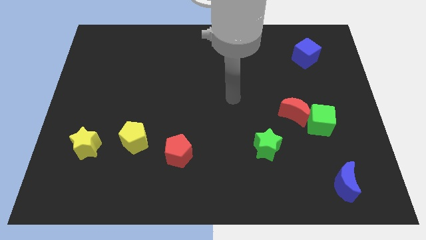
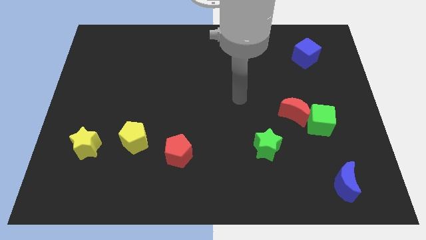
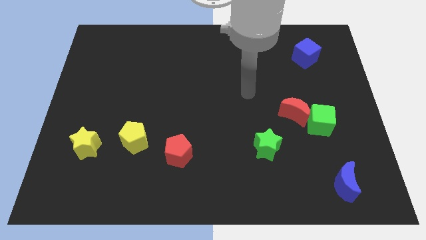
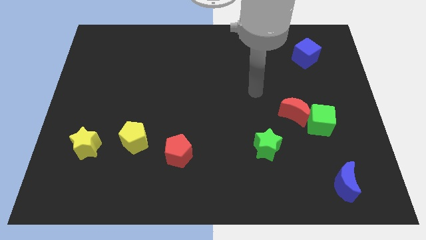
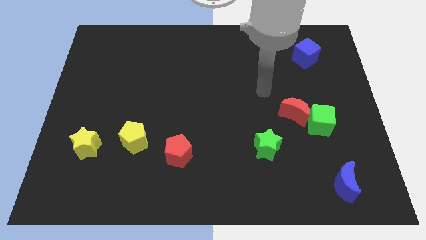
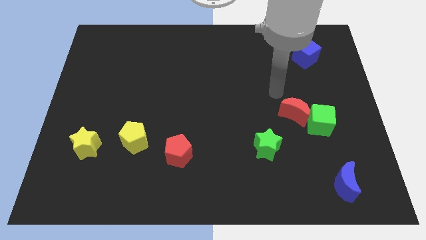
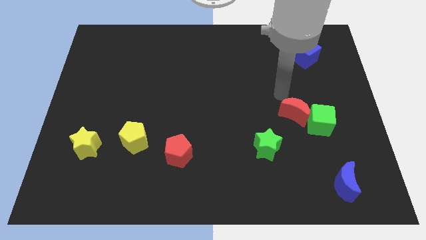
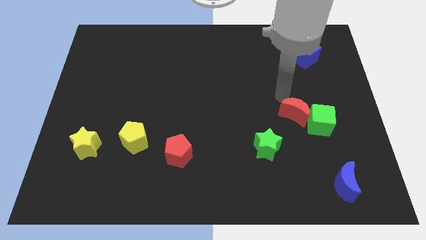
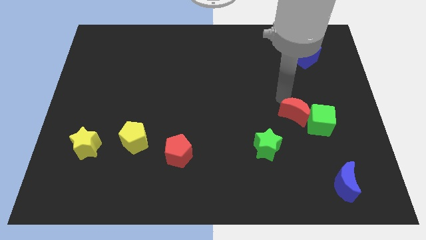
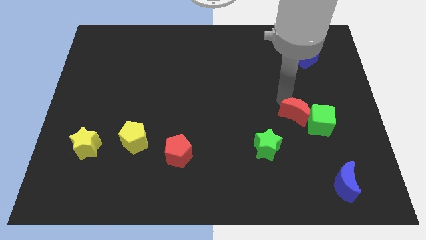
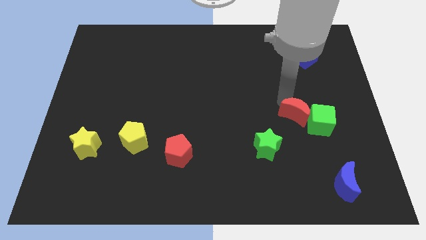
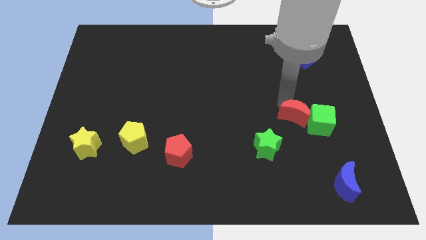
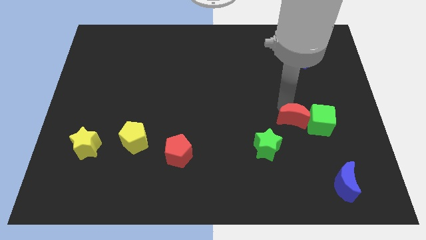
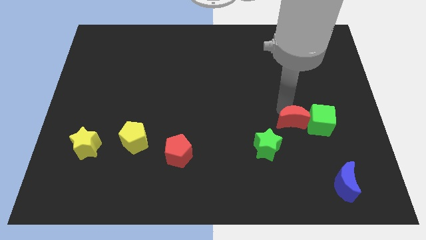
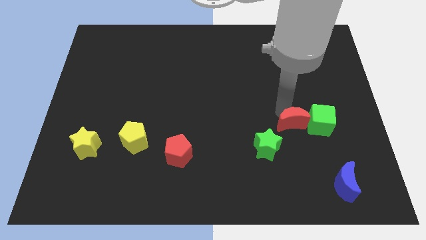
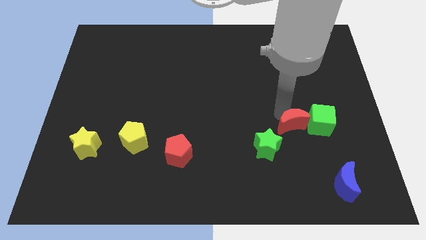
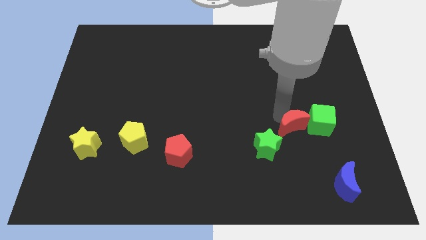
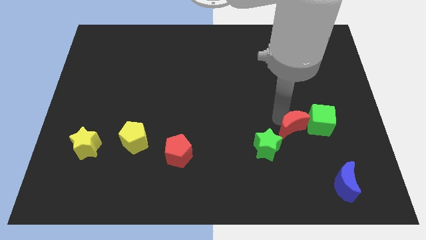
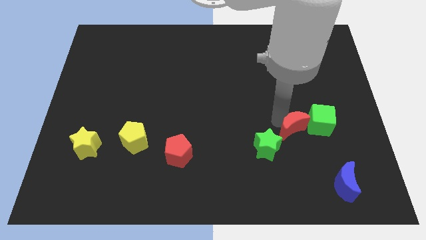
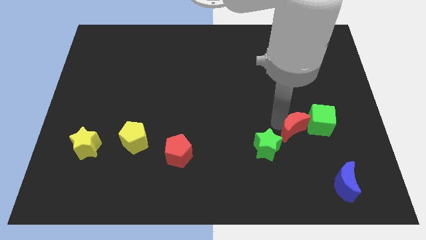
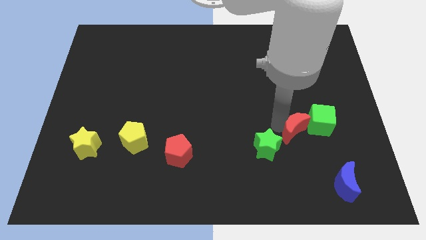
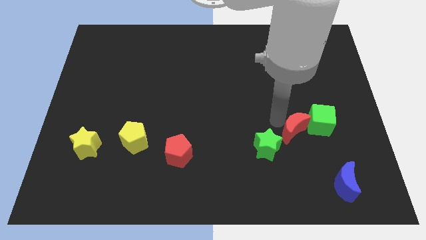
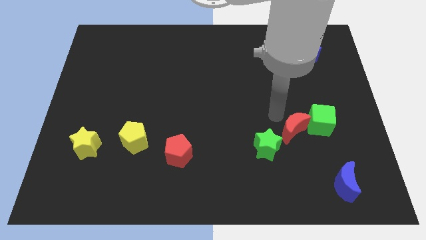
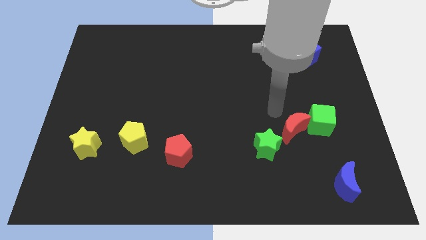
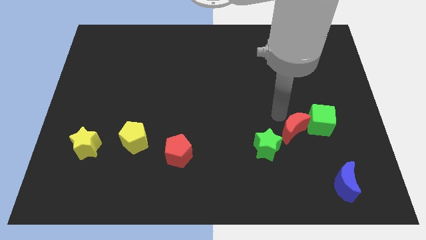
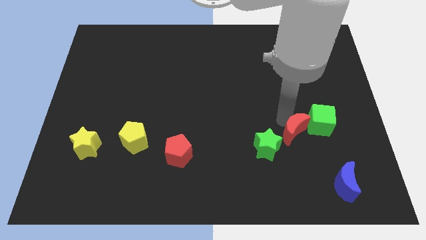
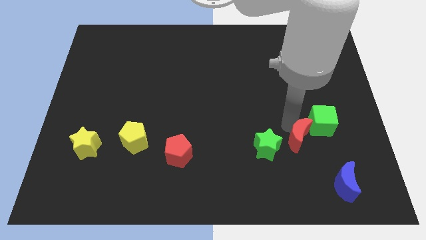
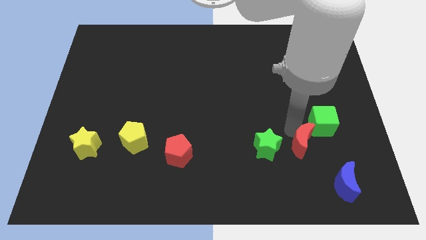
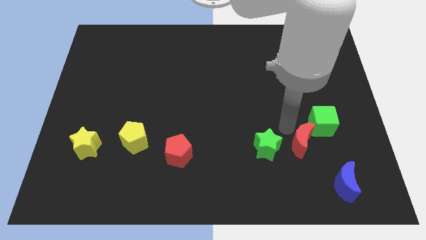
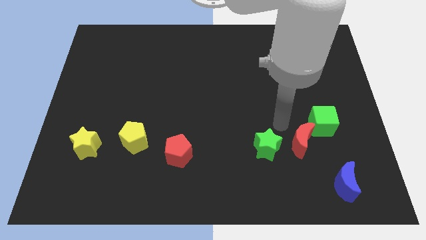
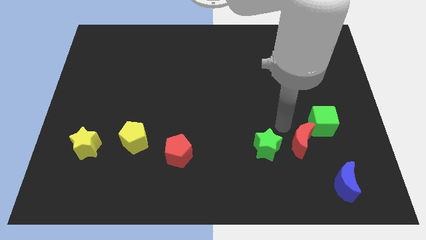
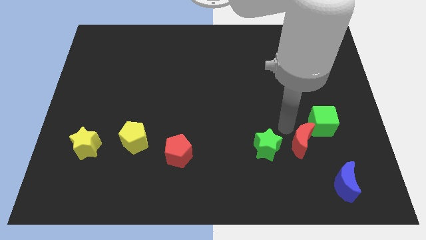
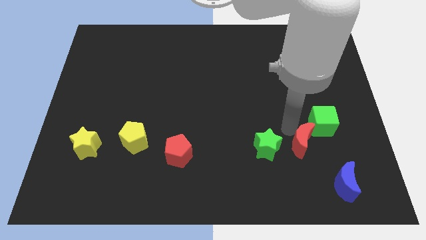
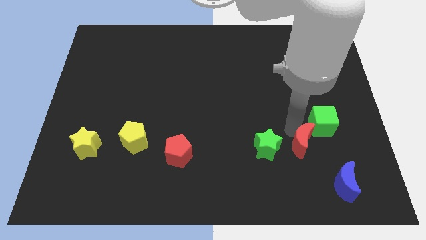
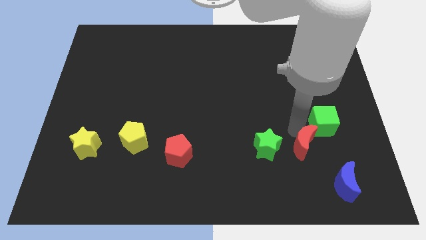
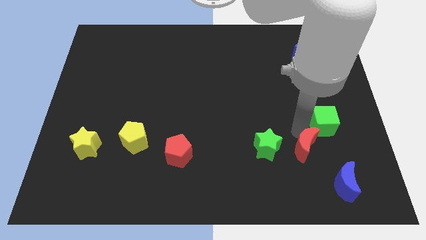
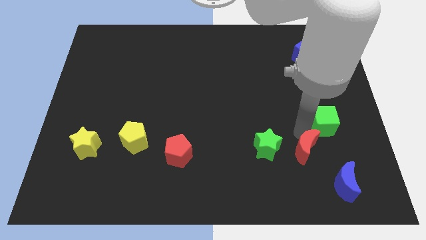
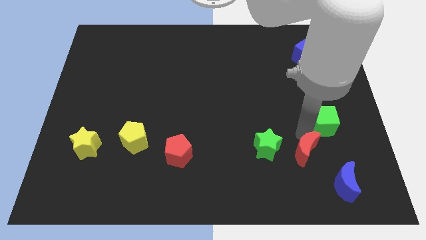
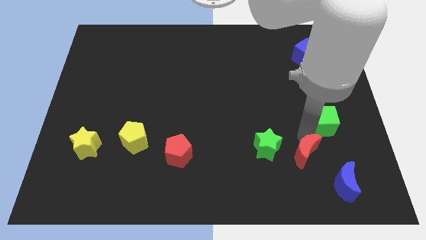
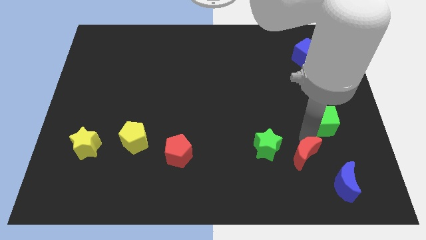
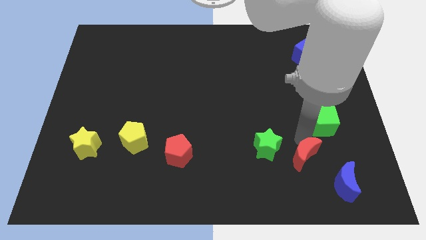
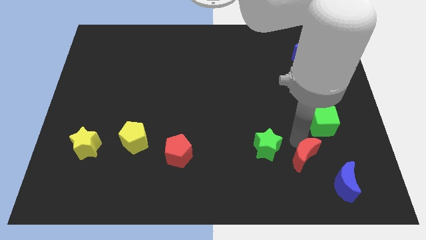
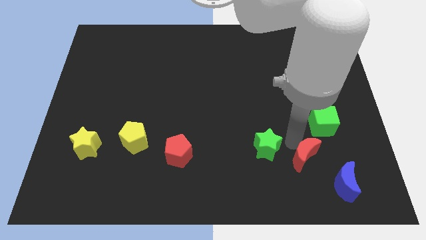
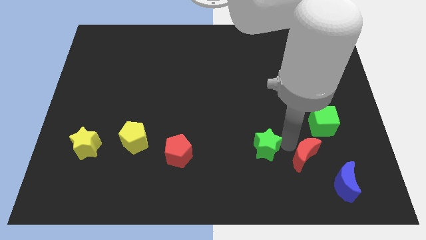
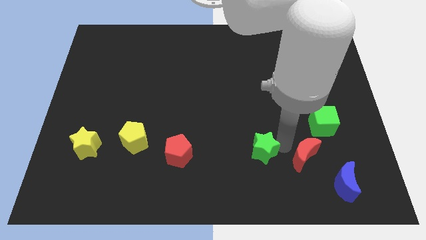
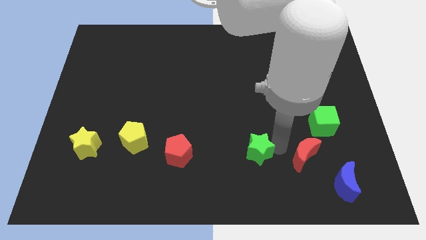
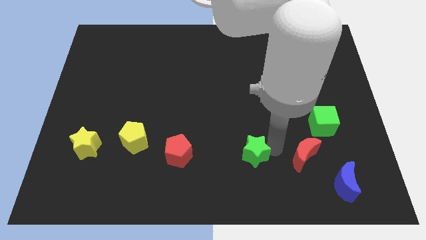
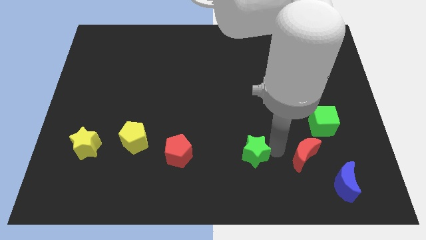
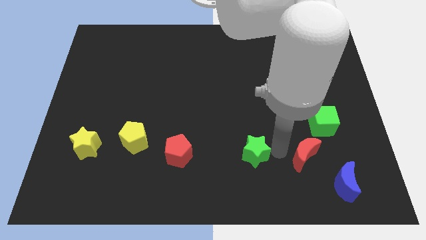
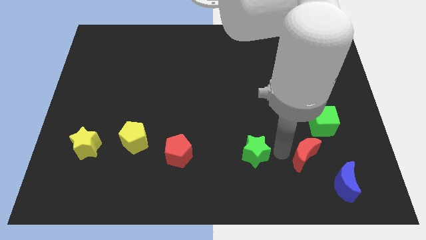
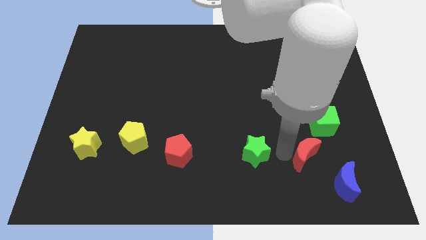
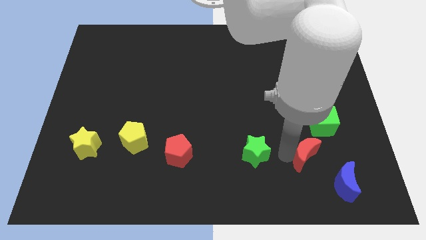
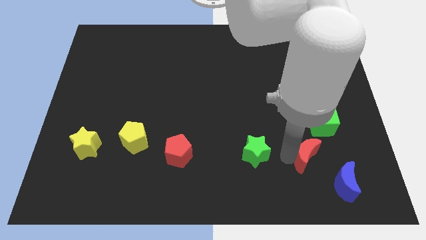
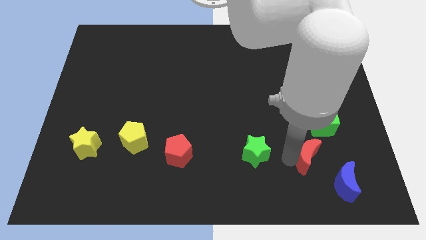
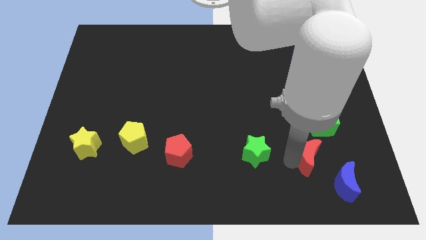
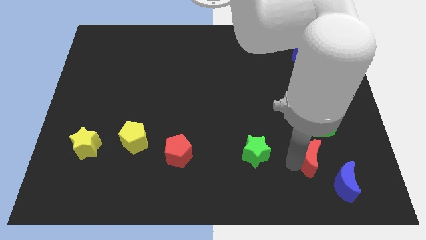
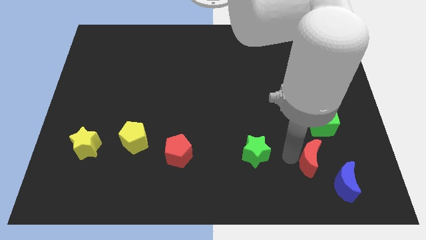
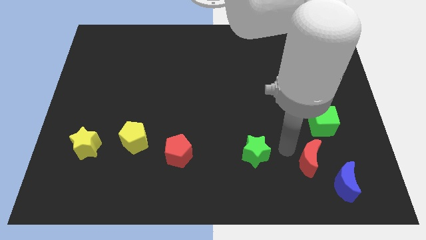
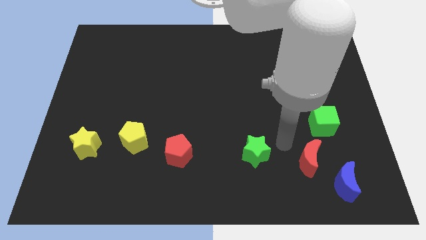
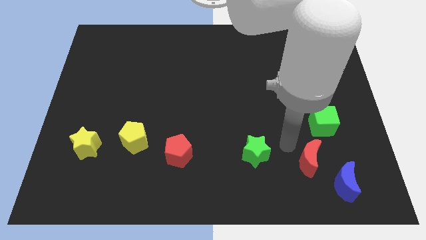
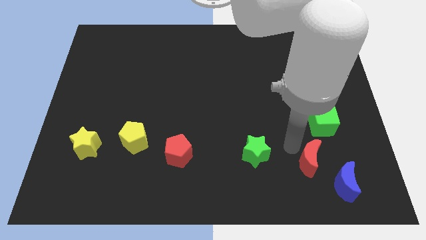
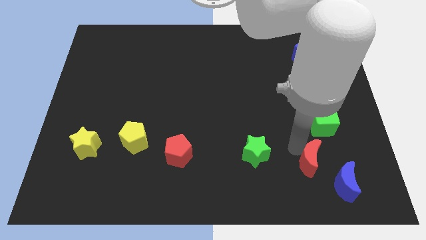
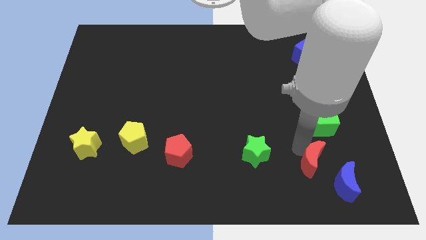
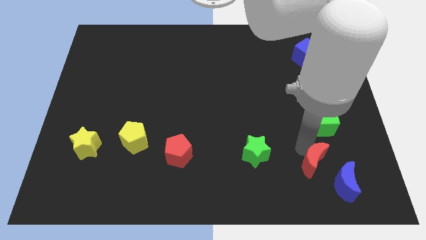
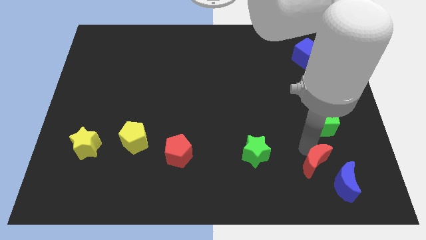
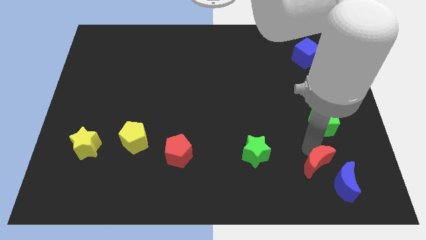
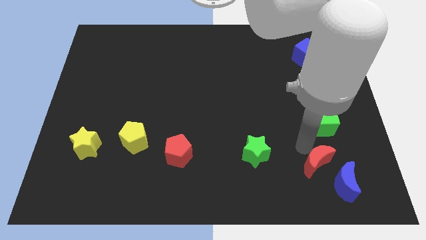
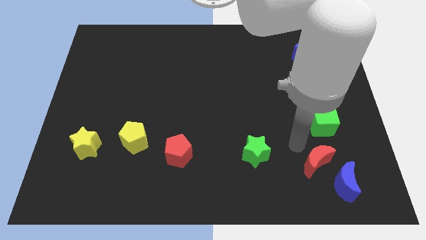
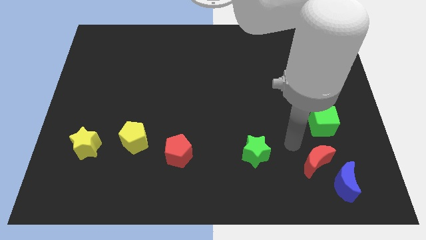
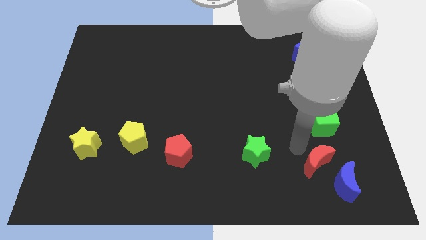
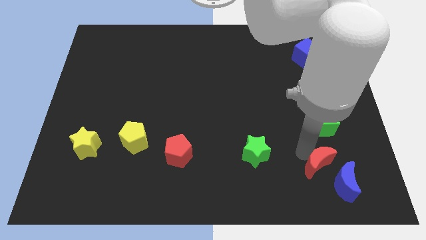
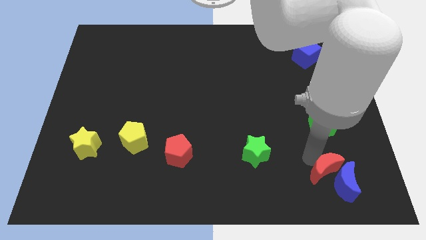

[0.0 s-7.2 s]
put the red moon towards the blue moon
